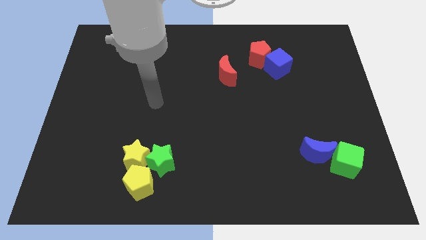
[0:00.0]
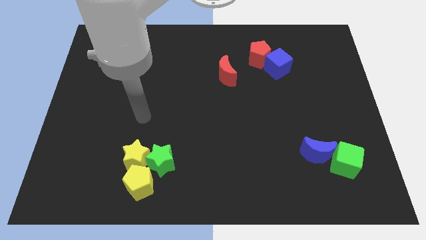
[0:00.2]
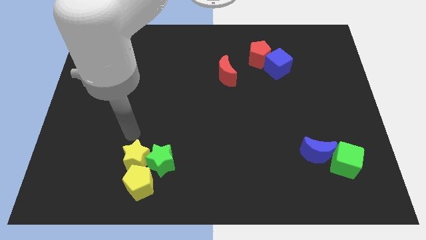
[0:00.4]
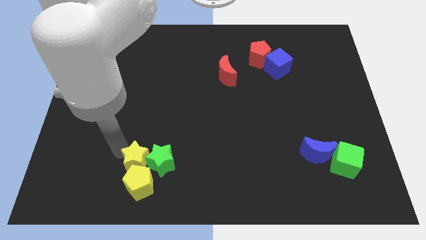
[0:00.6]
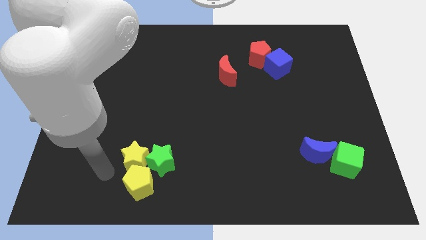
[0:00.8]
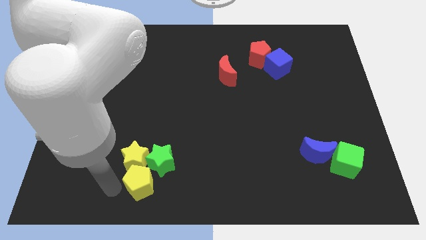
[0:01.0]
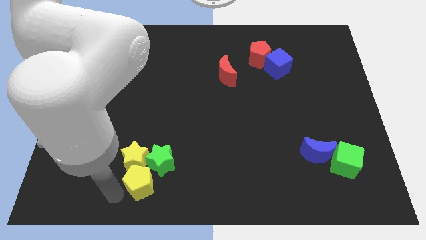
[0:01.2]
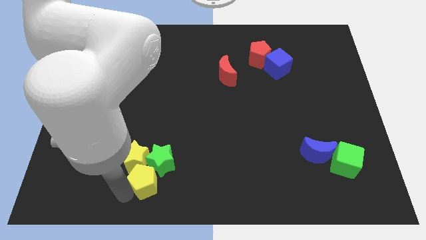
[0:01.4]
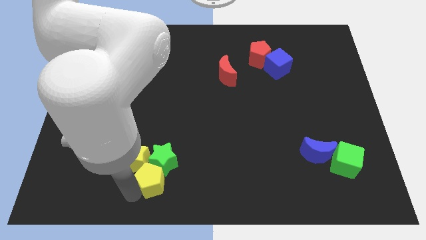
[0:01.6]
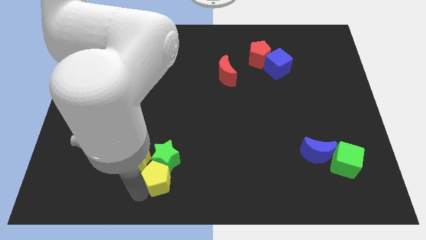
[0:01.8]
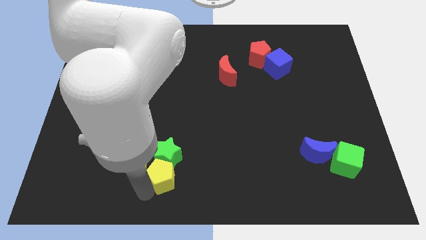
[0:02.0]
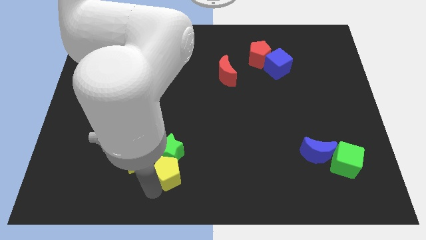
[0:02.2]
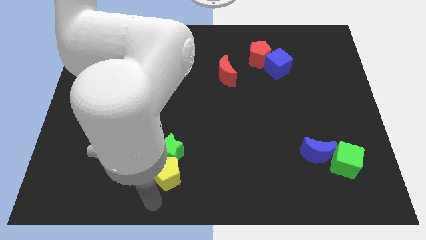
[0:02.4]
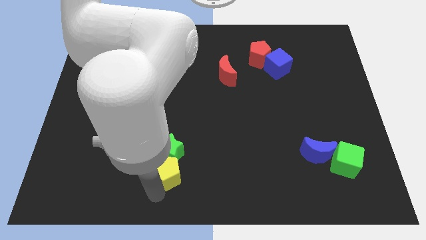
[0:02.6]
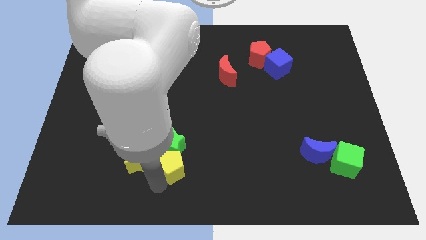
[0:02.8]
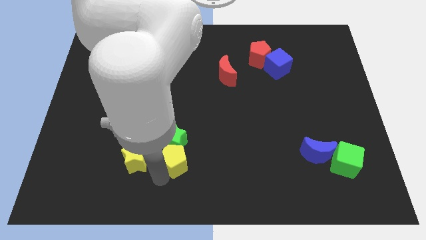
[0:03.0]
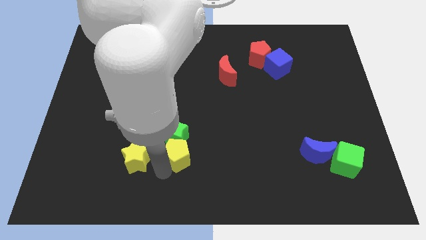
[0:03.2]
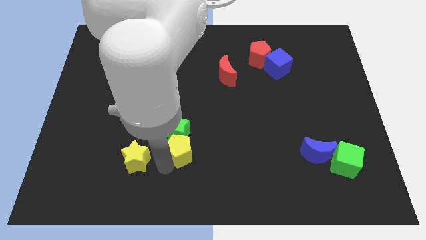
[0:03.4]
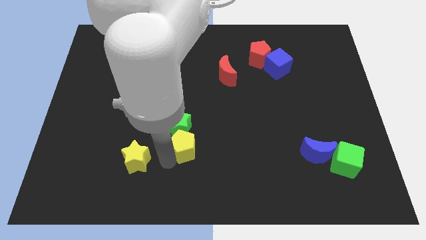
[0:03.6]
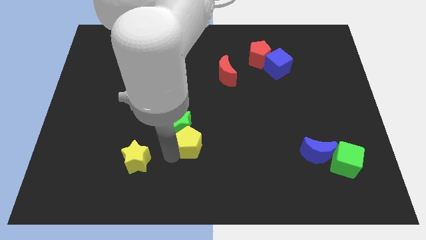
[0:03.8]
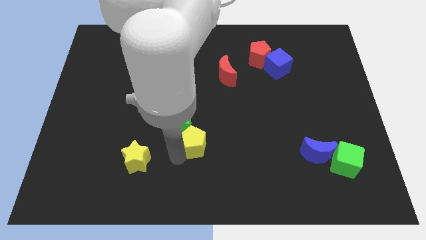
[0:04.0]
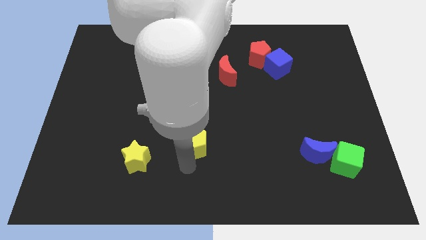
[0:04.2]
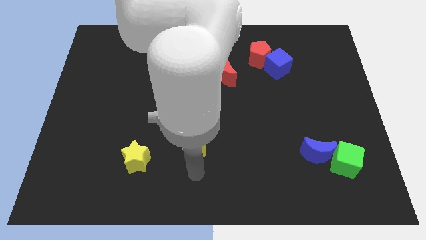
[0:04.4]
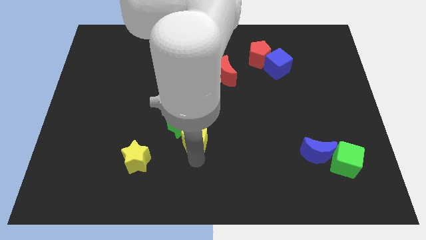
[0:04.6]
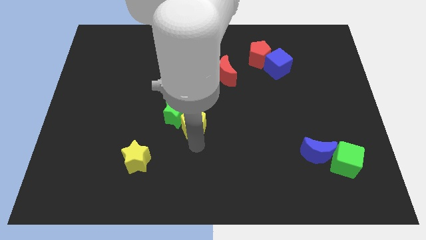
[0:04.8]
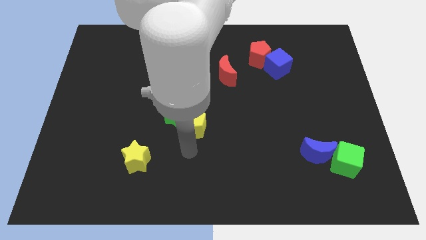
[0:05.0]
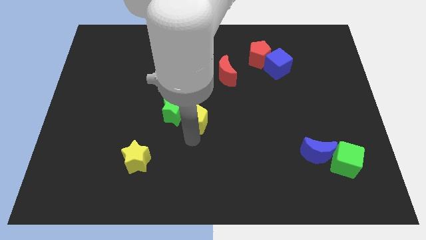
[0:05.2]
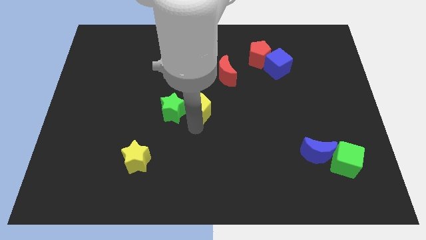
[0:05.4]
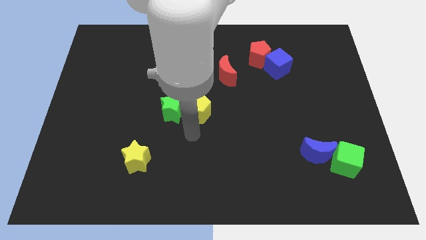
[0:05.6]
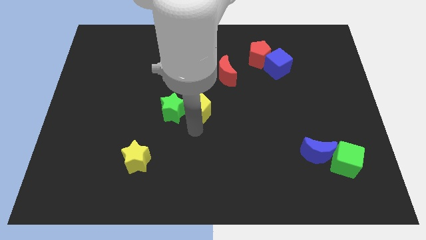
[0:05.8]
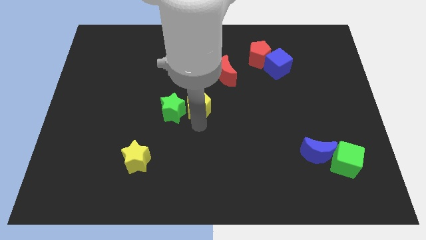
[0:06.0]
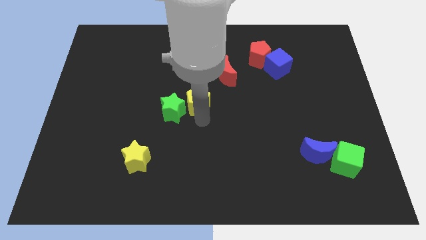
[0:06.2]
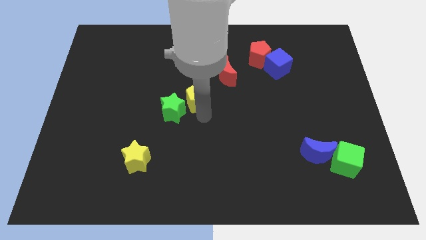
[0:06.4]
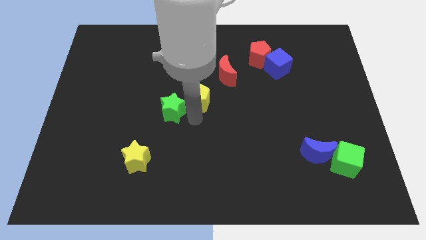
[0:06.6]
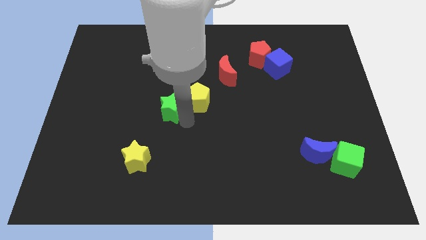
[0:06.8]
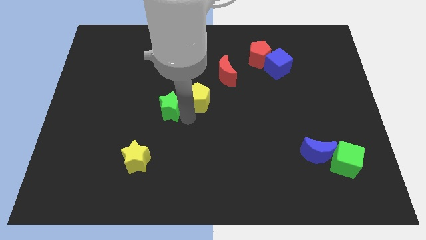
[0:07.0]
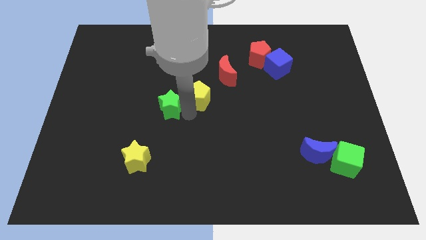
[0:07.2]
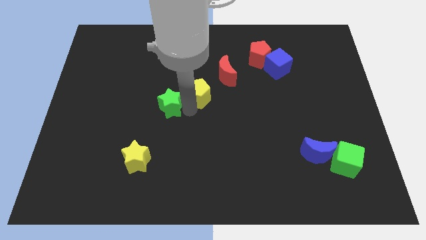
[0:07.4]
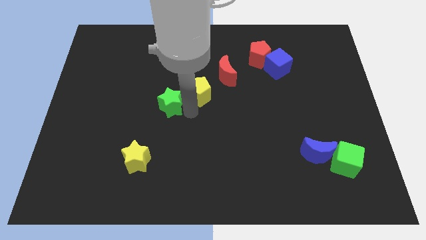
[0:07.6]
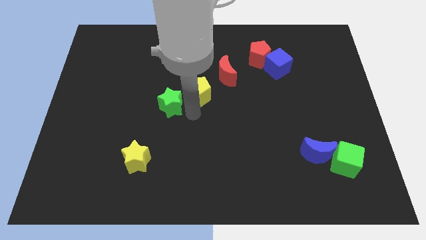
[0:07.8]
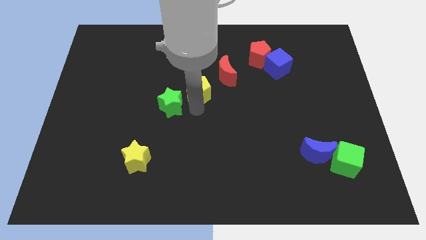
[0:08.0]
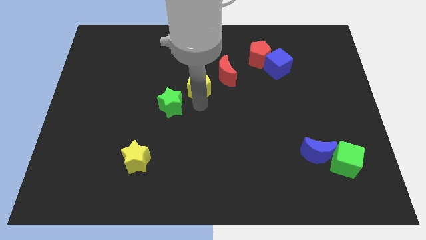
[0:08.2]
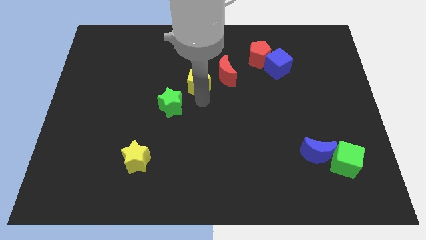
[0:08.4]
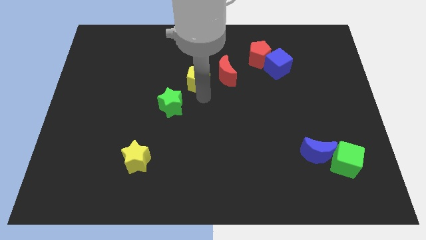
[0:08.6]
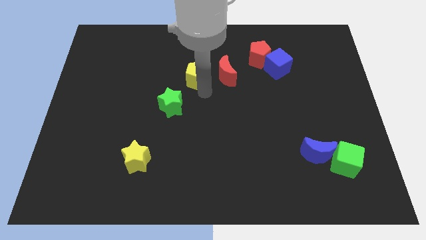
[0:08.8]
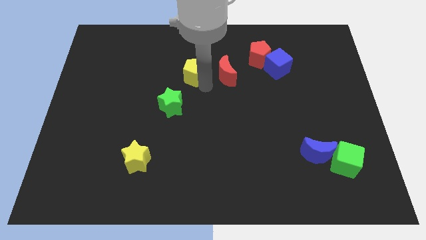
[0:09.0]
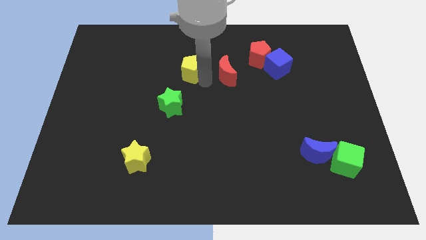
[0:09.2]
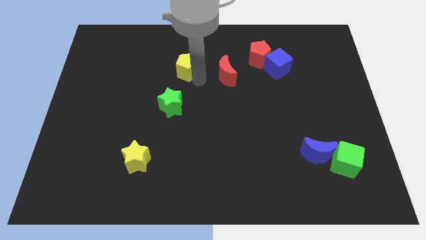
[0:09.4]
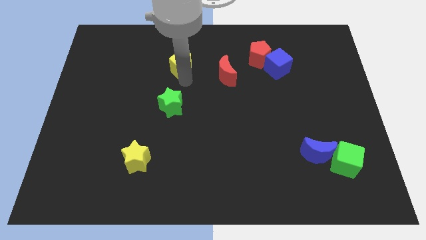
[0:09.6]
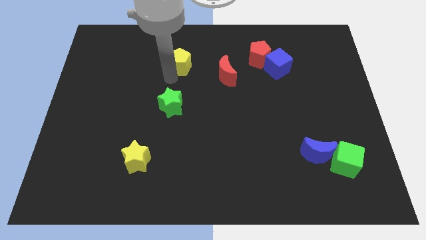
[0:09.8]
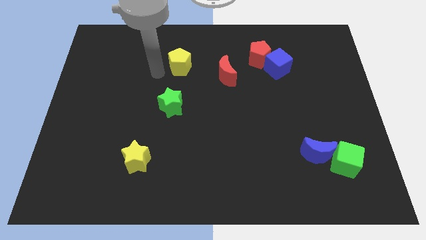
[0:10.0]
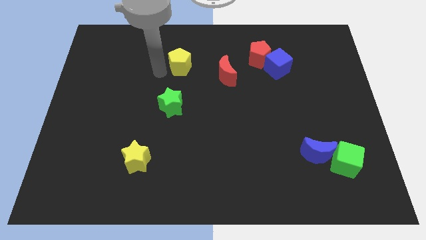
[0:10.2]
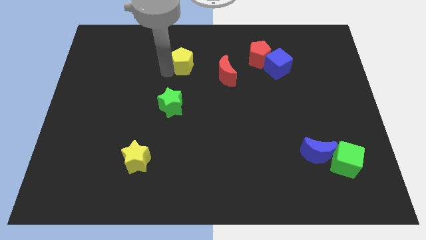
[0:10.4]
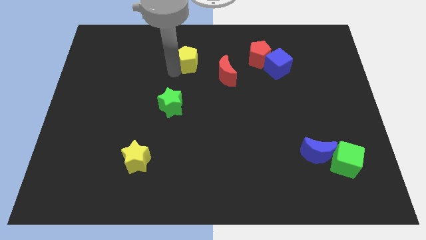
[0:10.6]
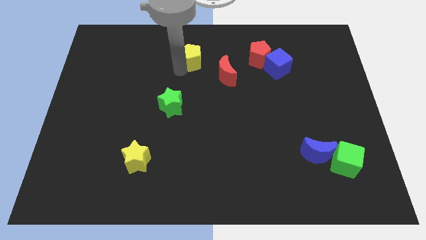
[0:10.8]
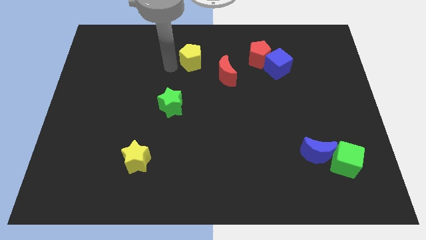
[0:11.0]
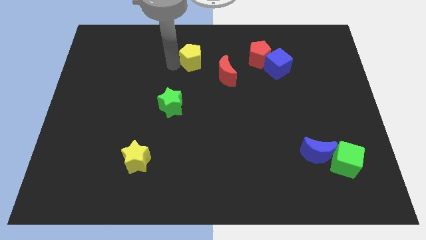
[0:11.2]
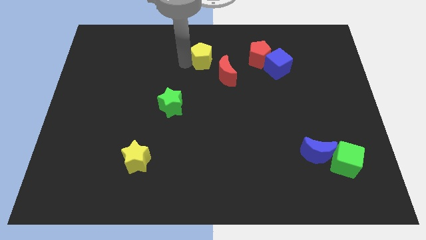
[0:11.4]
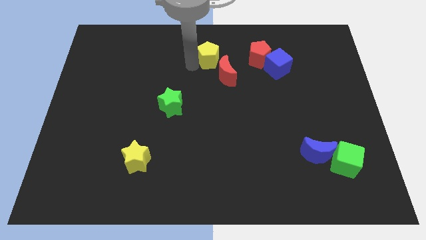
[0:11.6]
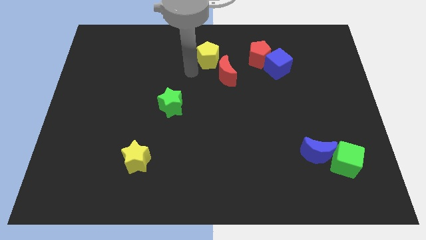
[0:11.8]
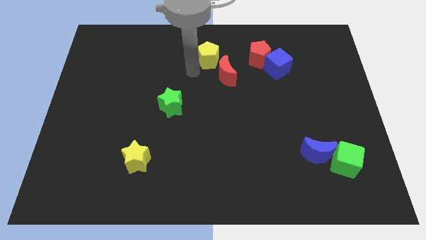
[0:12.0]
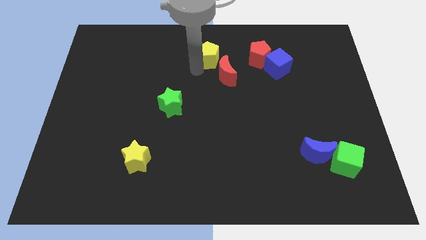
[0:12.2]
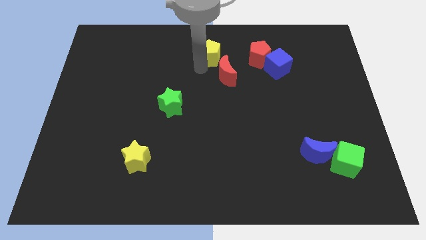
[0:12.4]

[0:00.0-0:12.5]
slide the yellow pentagon to the top side

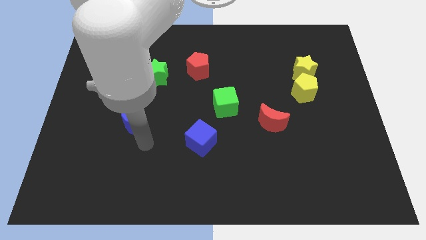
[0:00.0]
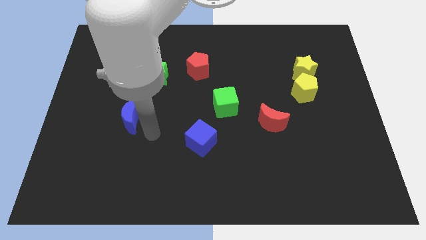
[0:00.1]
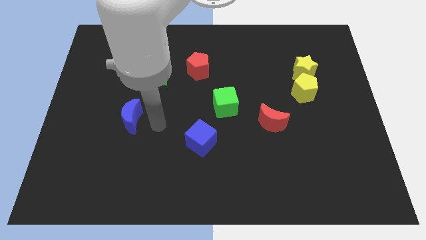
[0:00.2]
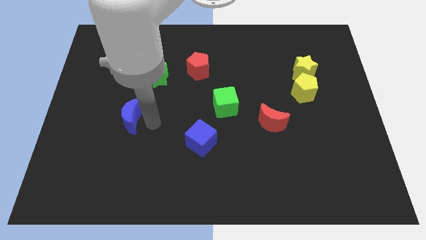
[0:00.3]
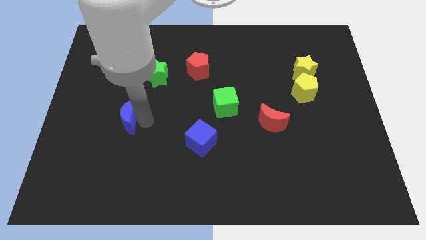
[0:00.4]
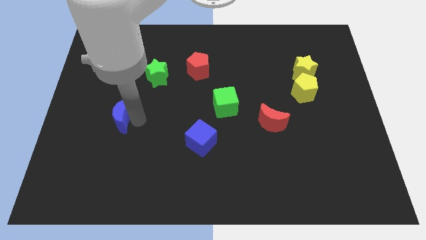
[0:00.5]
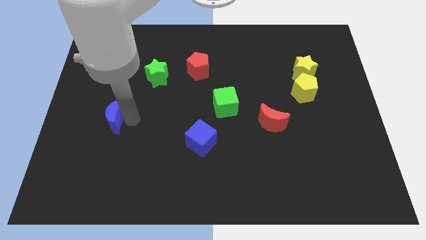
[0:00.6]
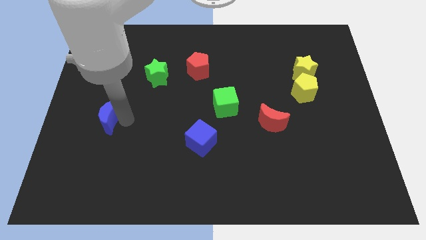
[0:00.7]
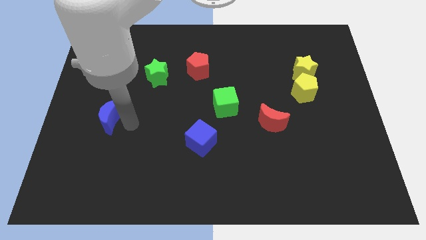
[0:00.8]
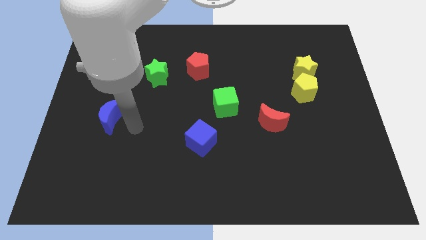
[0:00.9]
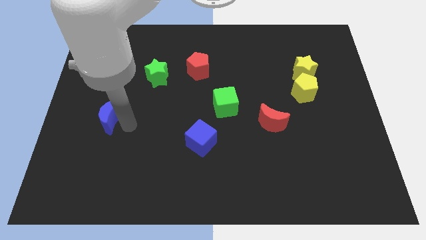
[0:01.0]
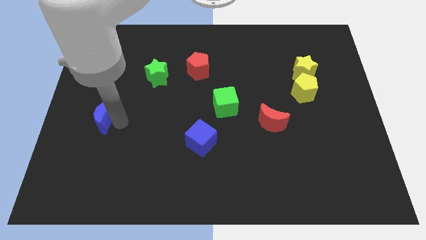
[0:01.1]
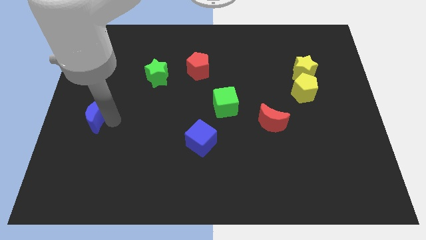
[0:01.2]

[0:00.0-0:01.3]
move the blue moon to the center left
